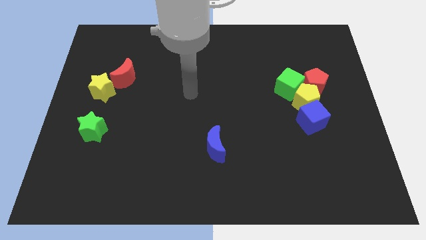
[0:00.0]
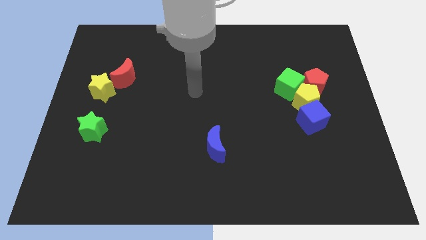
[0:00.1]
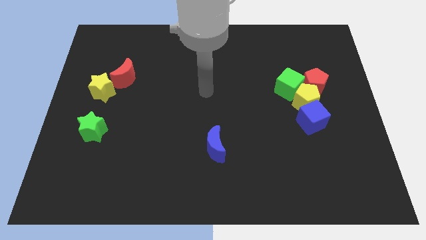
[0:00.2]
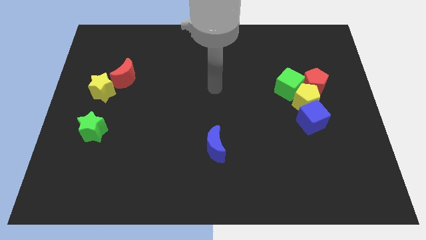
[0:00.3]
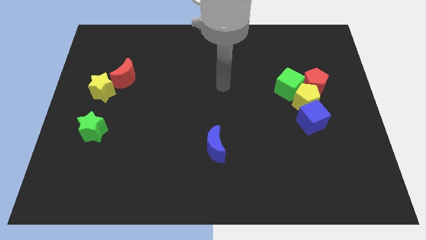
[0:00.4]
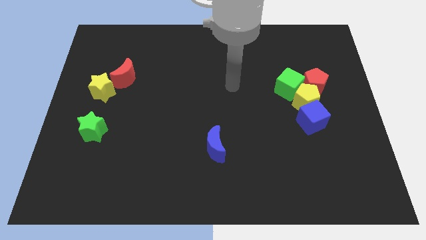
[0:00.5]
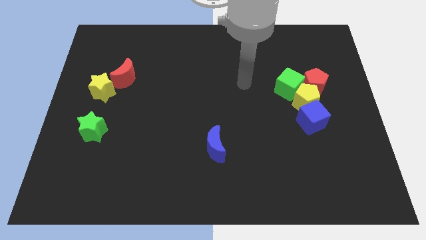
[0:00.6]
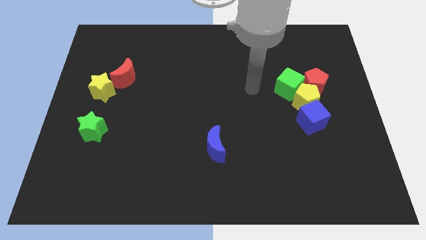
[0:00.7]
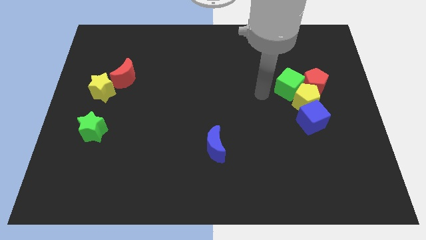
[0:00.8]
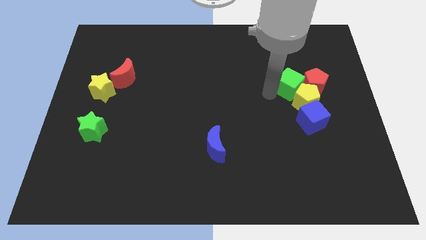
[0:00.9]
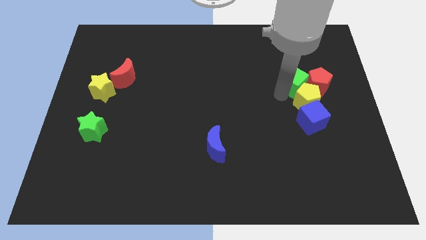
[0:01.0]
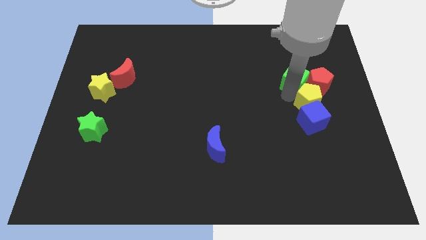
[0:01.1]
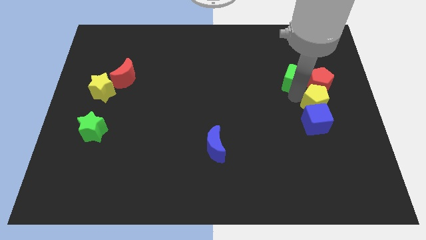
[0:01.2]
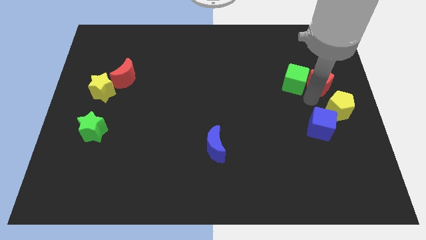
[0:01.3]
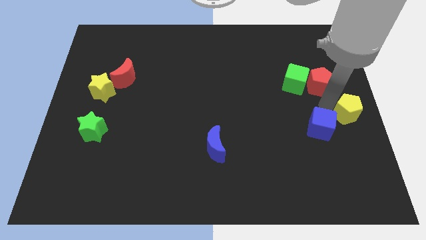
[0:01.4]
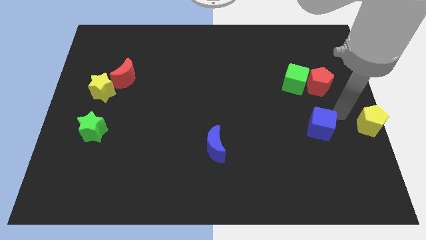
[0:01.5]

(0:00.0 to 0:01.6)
pull the blue cube apart from the yellow pentagon

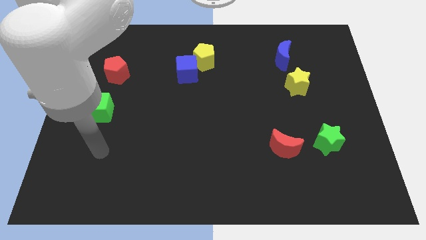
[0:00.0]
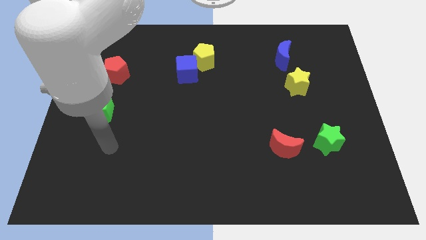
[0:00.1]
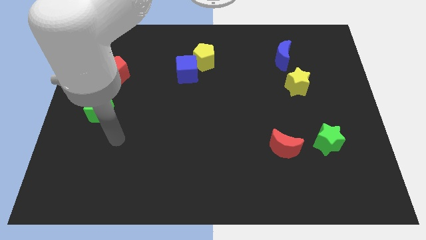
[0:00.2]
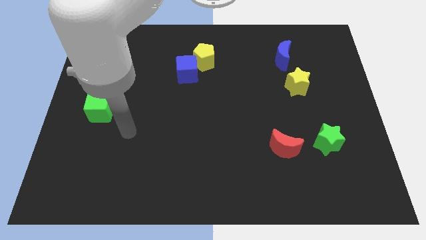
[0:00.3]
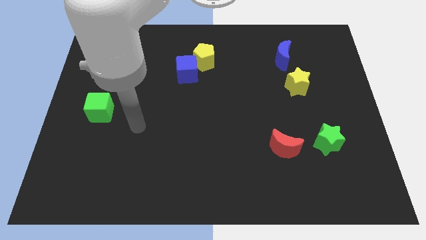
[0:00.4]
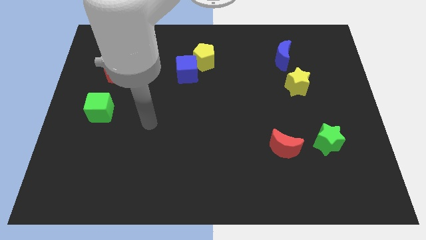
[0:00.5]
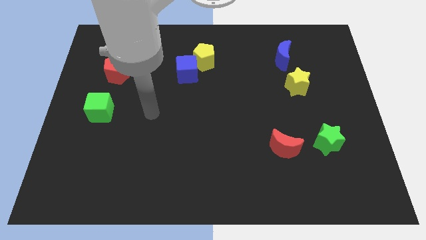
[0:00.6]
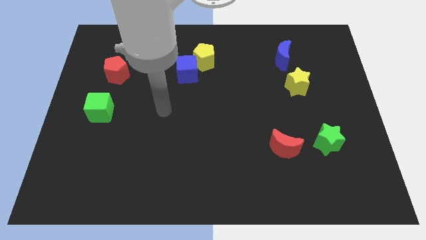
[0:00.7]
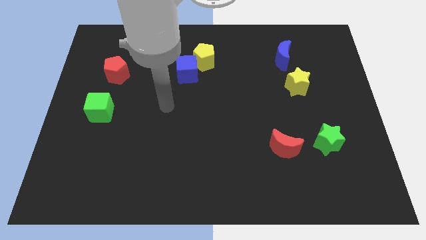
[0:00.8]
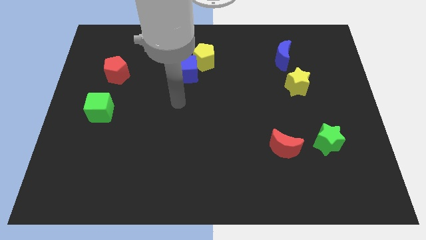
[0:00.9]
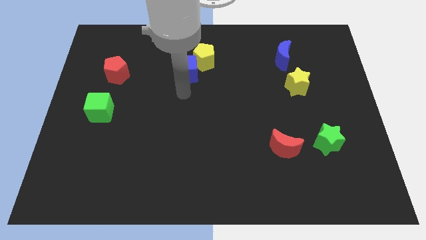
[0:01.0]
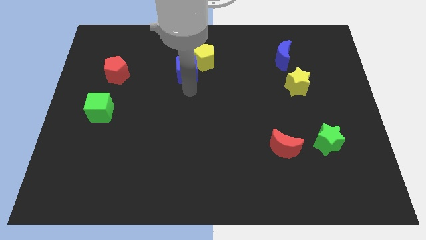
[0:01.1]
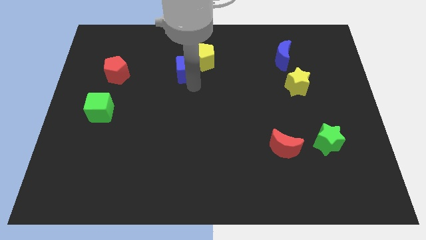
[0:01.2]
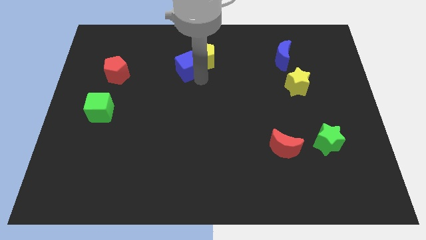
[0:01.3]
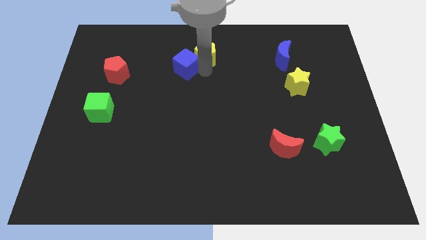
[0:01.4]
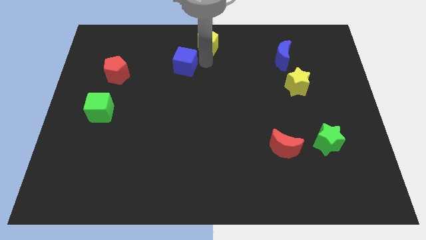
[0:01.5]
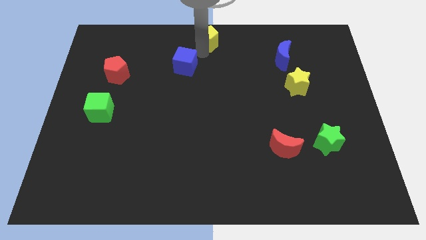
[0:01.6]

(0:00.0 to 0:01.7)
move the blue cube away from the yellow pentagon

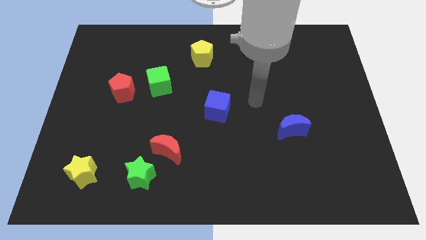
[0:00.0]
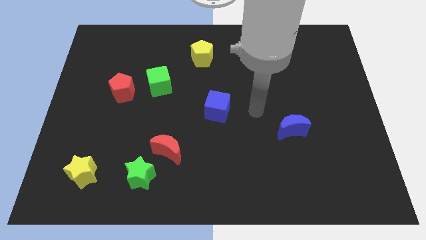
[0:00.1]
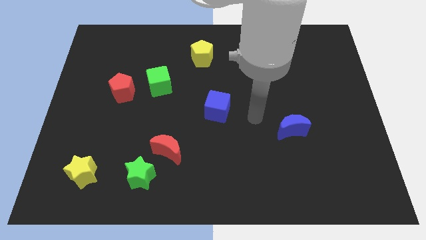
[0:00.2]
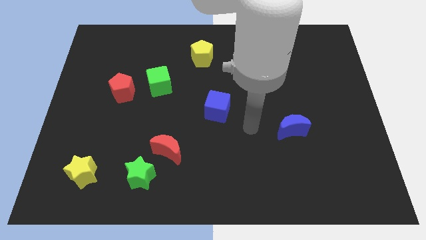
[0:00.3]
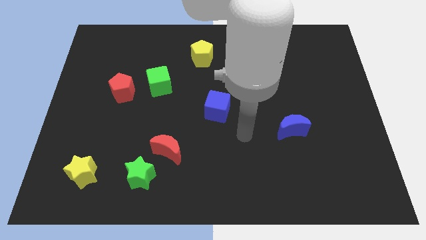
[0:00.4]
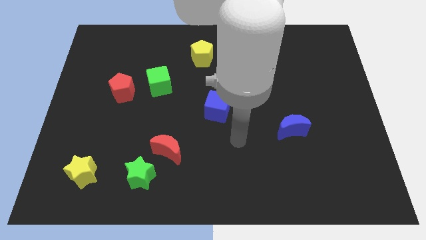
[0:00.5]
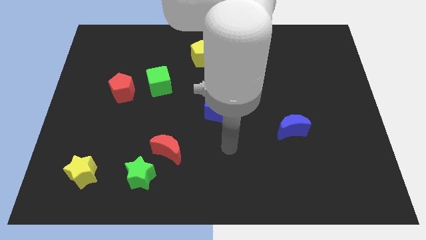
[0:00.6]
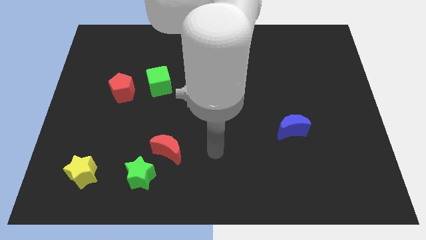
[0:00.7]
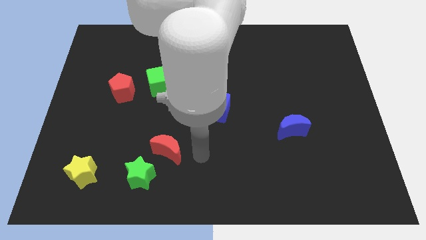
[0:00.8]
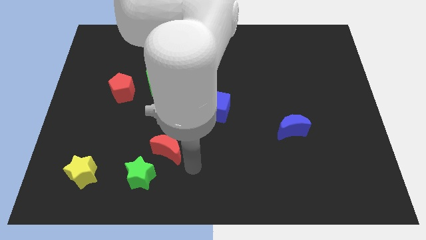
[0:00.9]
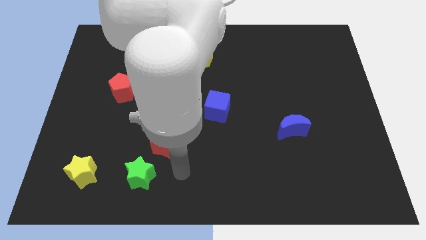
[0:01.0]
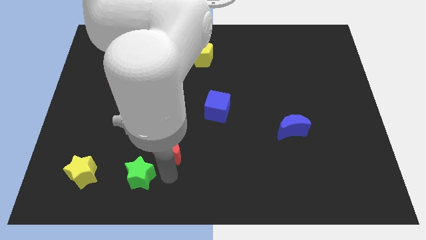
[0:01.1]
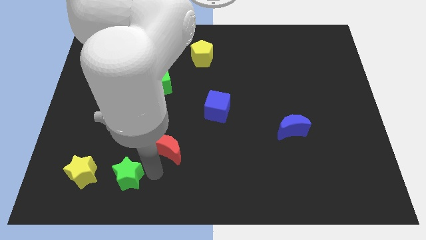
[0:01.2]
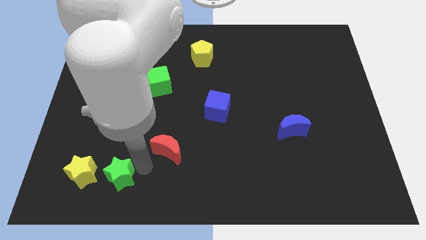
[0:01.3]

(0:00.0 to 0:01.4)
pull the red moon apart from the green star

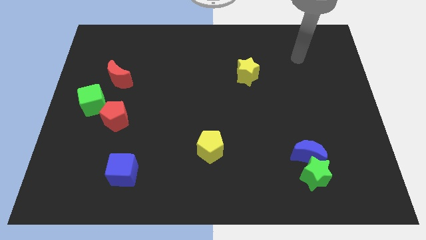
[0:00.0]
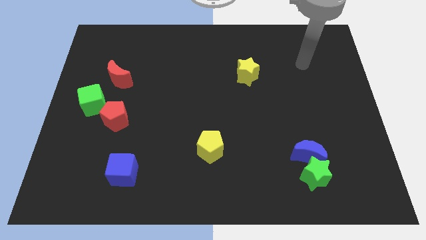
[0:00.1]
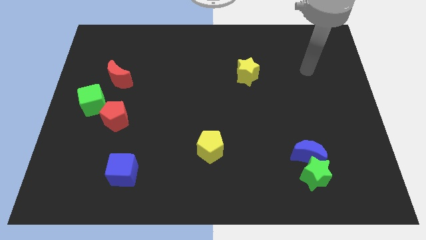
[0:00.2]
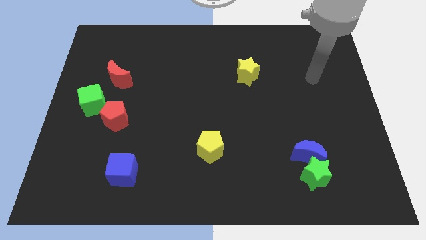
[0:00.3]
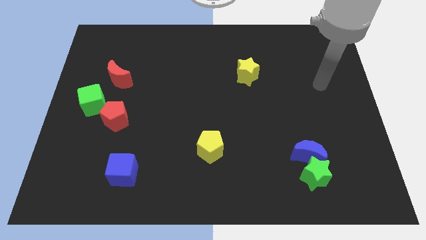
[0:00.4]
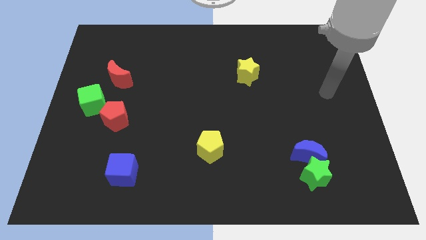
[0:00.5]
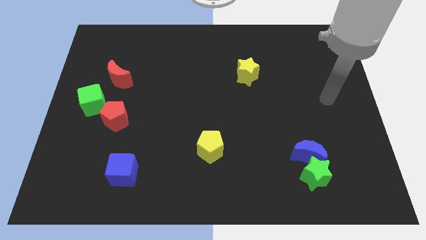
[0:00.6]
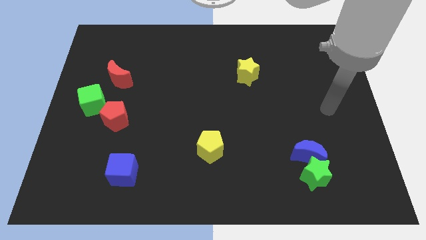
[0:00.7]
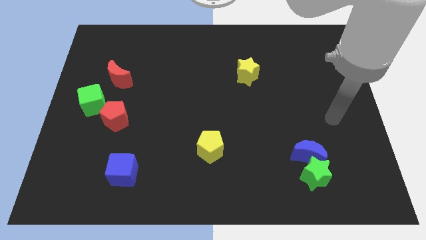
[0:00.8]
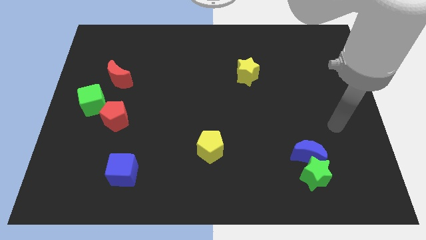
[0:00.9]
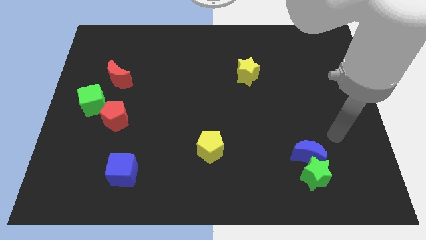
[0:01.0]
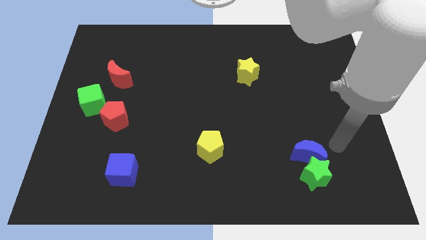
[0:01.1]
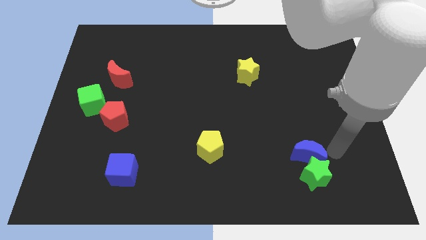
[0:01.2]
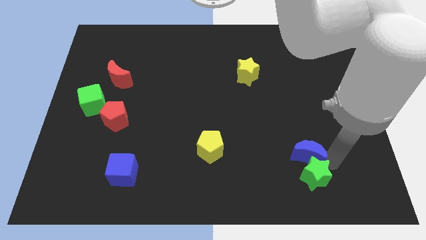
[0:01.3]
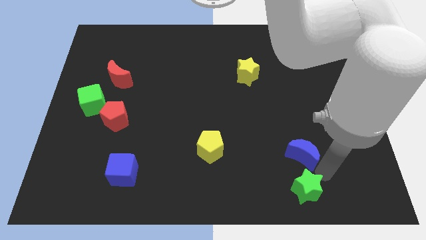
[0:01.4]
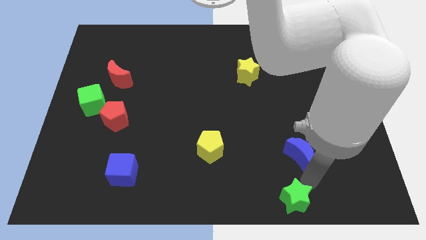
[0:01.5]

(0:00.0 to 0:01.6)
move the blue moon away from the green star

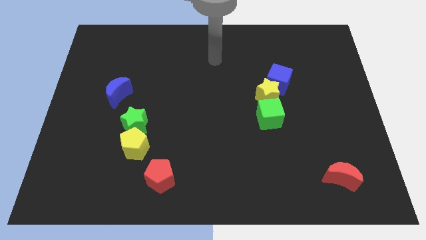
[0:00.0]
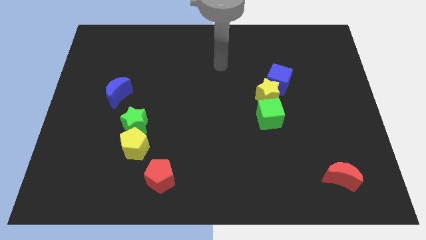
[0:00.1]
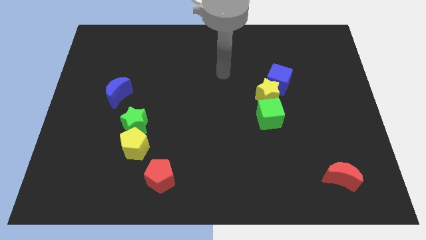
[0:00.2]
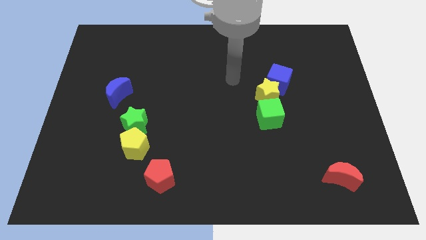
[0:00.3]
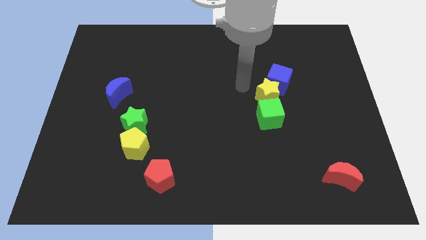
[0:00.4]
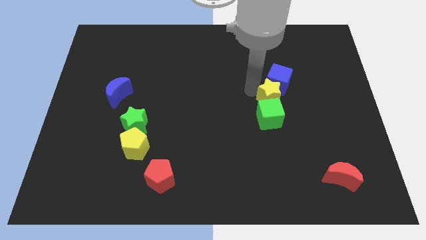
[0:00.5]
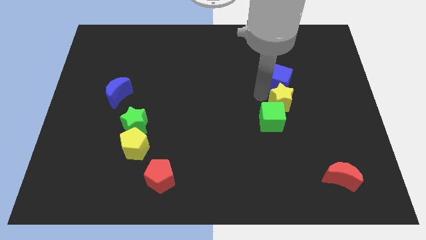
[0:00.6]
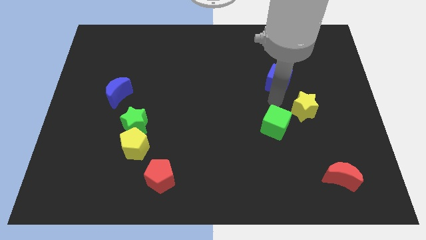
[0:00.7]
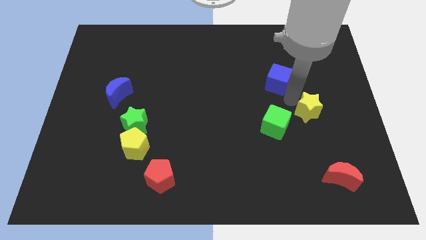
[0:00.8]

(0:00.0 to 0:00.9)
pull the blue cube apart from the yellow star

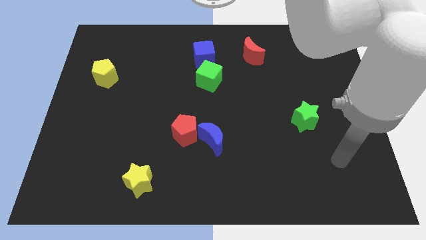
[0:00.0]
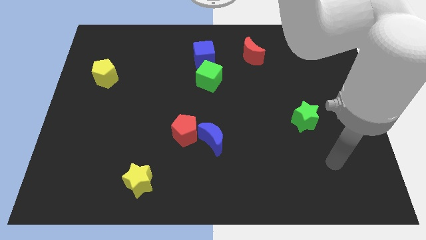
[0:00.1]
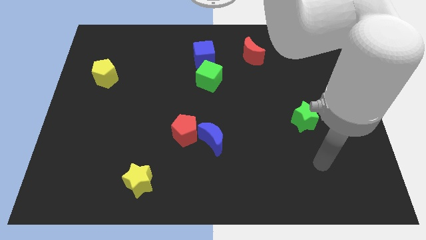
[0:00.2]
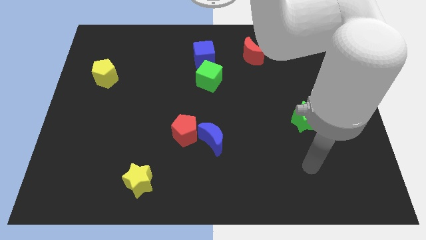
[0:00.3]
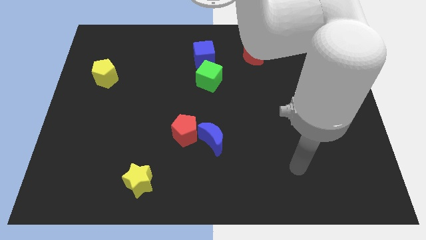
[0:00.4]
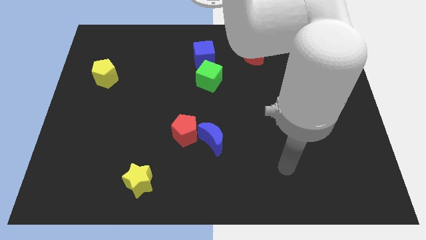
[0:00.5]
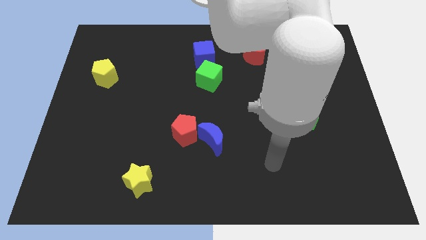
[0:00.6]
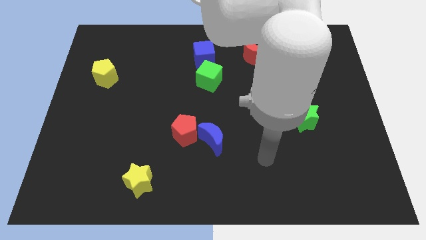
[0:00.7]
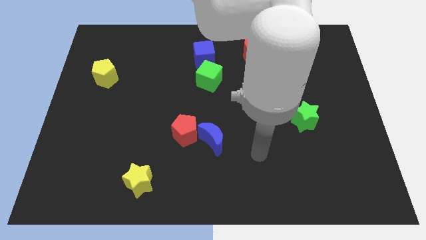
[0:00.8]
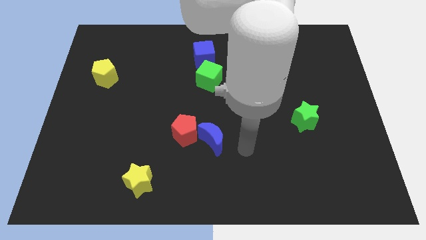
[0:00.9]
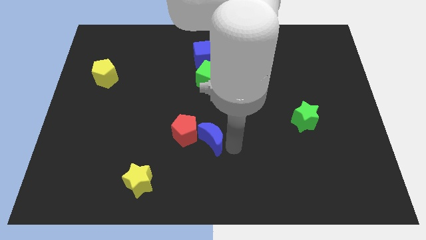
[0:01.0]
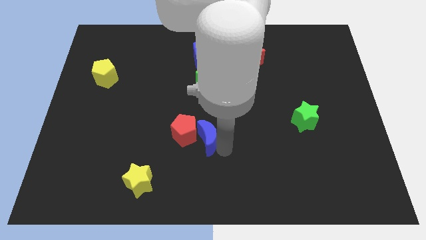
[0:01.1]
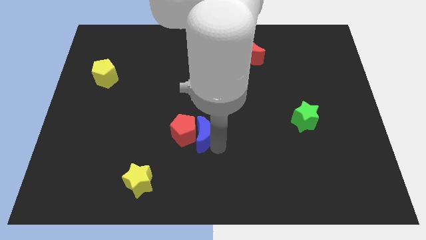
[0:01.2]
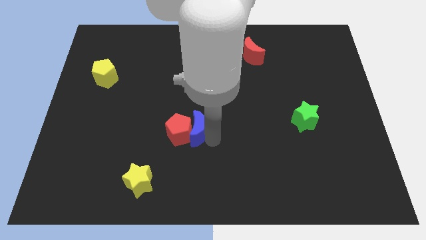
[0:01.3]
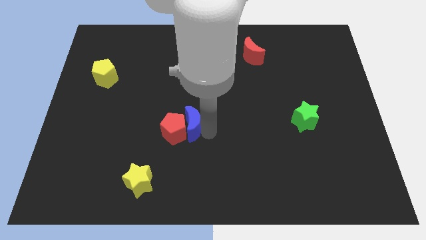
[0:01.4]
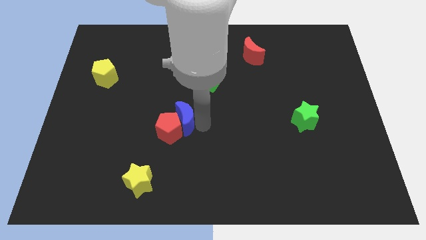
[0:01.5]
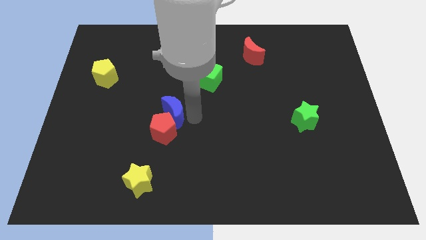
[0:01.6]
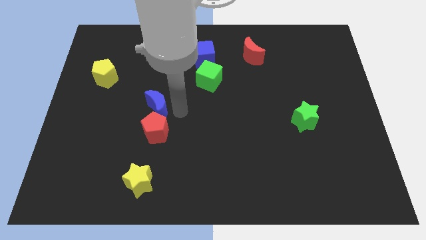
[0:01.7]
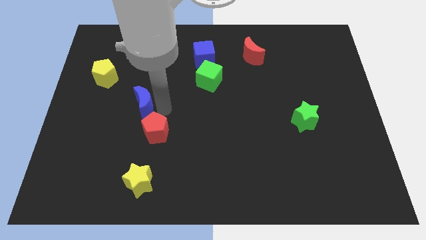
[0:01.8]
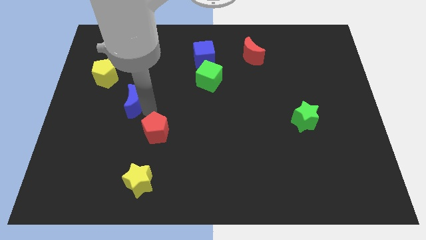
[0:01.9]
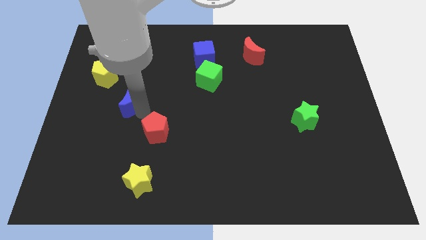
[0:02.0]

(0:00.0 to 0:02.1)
pull the red pentagon apart from the blue moon
